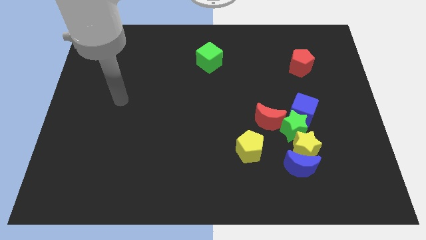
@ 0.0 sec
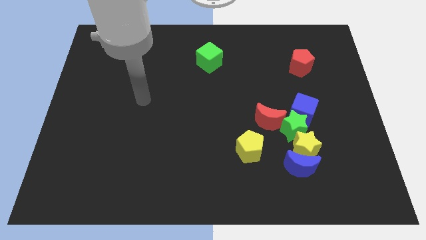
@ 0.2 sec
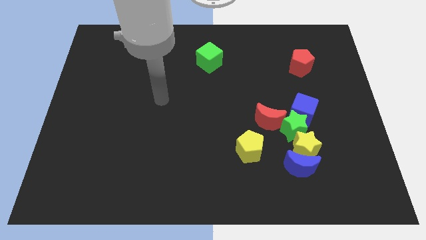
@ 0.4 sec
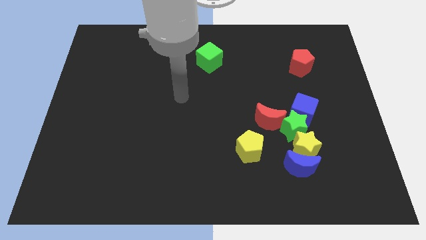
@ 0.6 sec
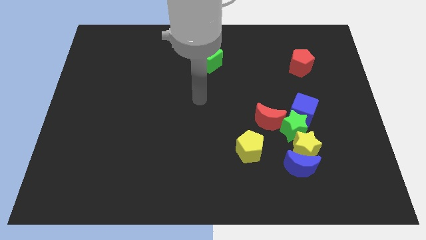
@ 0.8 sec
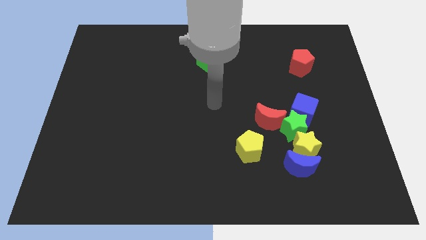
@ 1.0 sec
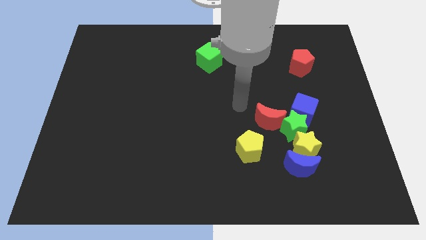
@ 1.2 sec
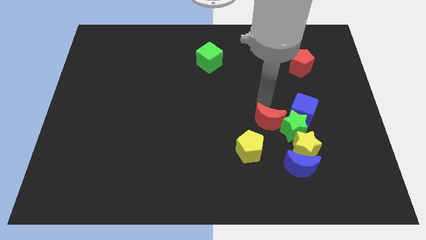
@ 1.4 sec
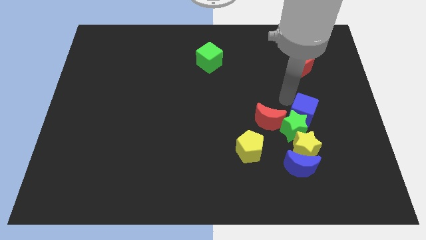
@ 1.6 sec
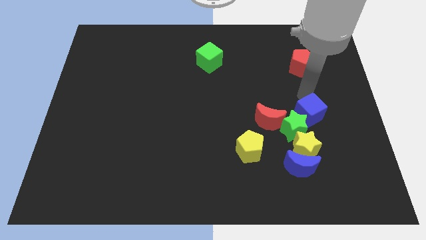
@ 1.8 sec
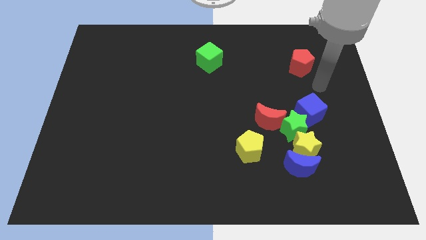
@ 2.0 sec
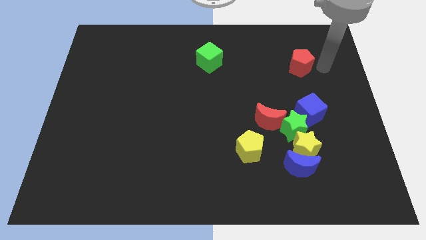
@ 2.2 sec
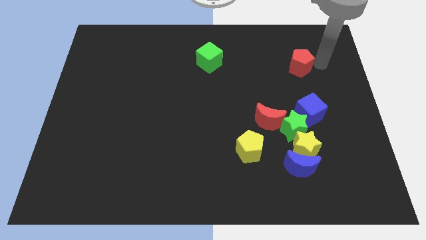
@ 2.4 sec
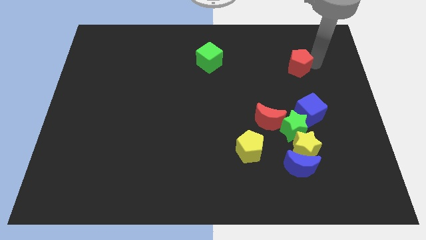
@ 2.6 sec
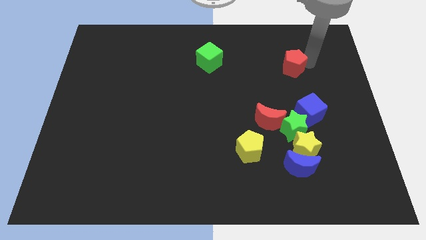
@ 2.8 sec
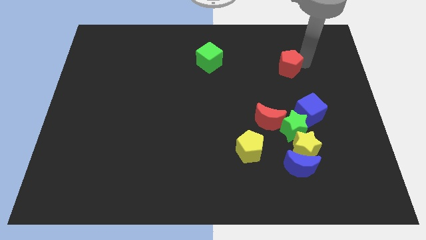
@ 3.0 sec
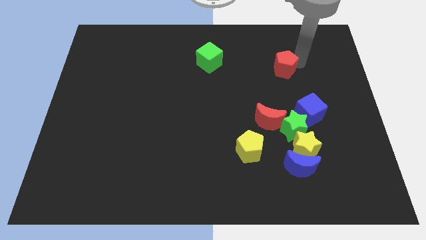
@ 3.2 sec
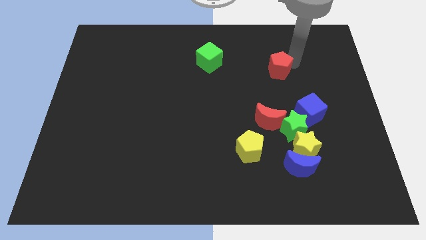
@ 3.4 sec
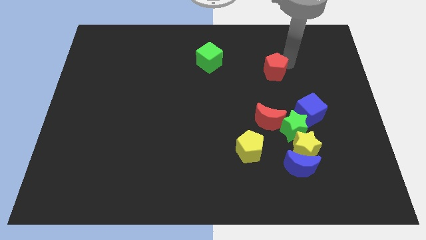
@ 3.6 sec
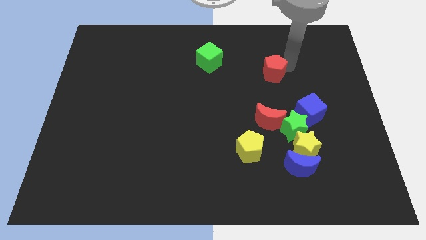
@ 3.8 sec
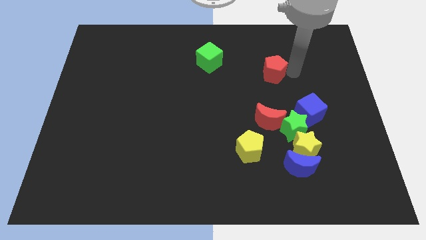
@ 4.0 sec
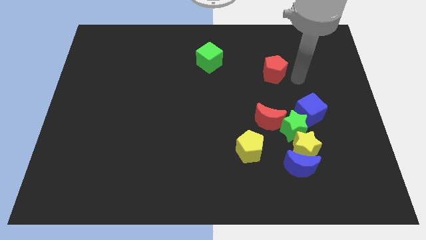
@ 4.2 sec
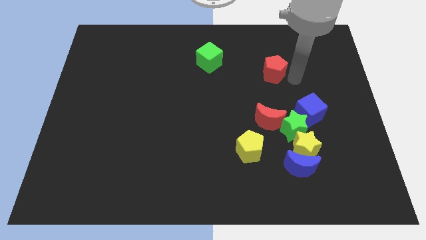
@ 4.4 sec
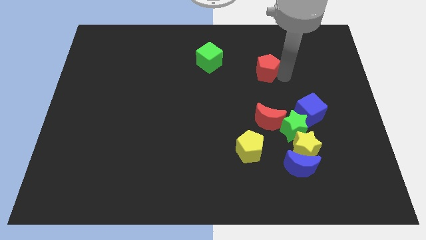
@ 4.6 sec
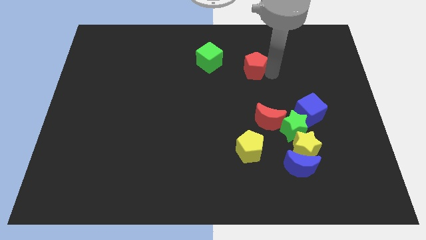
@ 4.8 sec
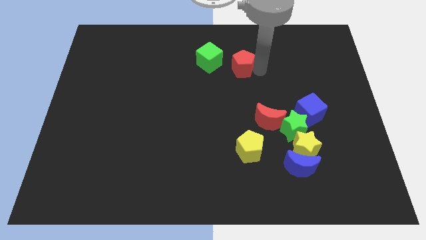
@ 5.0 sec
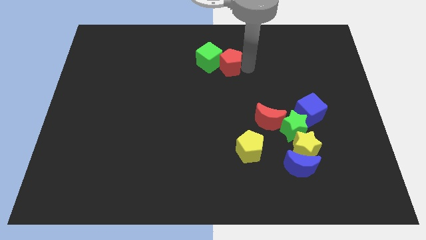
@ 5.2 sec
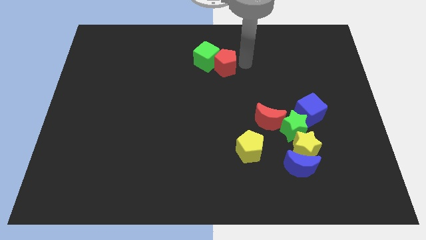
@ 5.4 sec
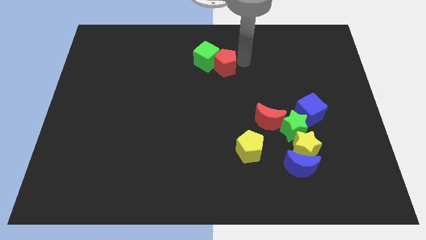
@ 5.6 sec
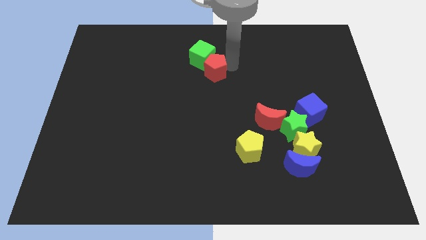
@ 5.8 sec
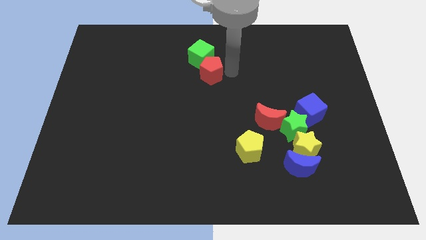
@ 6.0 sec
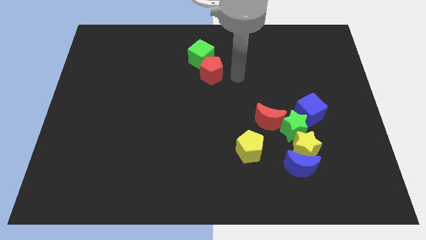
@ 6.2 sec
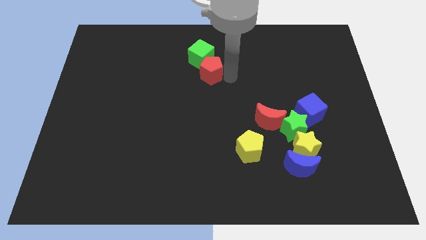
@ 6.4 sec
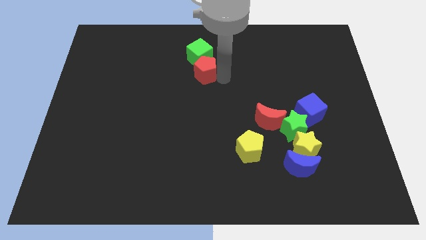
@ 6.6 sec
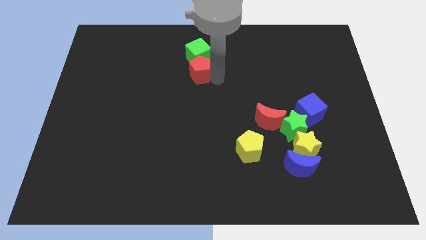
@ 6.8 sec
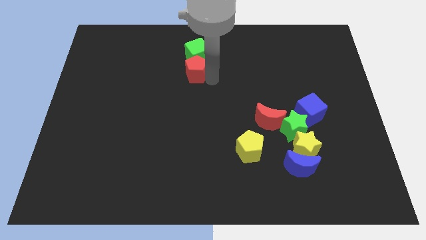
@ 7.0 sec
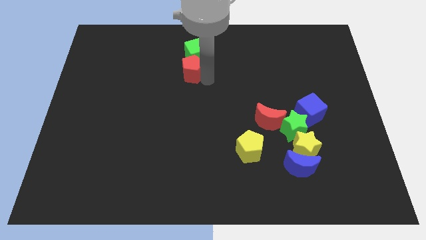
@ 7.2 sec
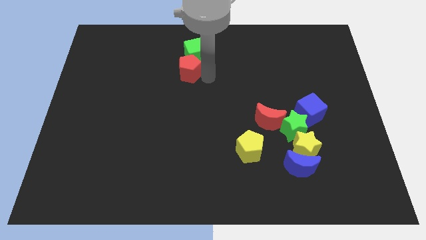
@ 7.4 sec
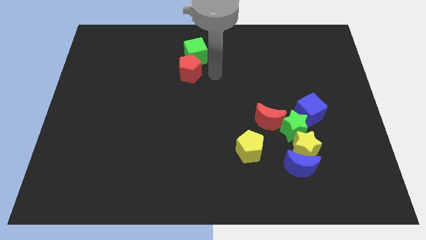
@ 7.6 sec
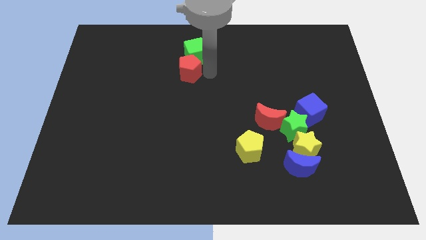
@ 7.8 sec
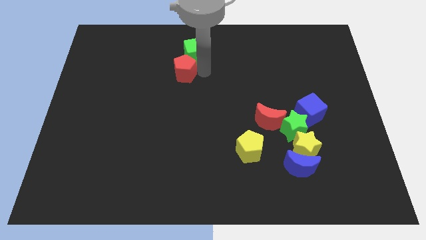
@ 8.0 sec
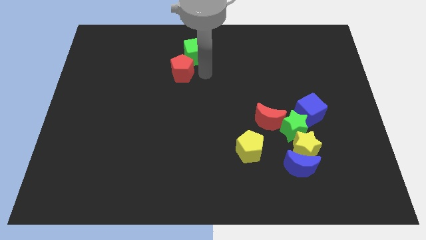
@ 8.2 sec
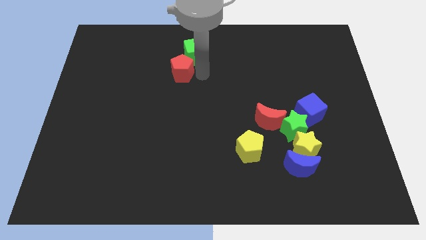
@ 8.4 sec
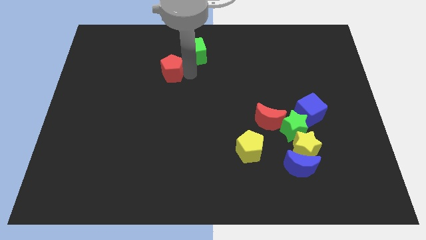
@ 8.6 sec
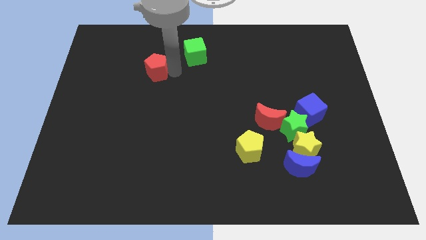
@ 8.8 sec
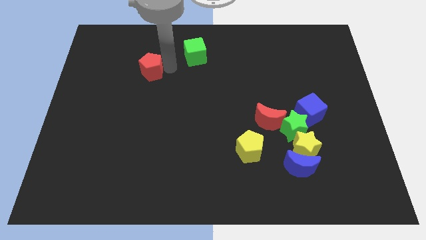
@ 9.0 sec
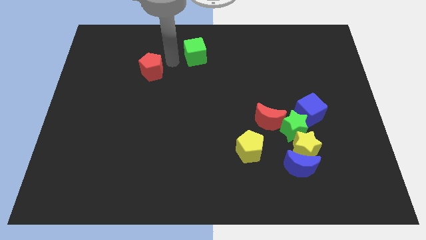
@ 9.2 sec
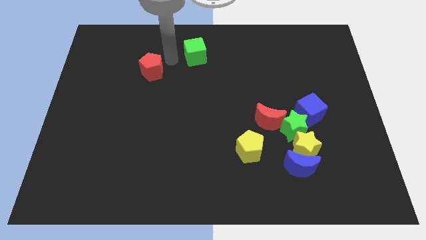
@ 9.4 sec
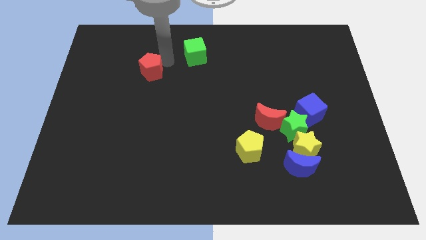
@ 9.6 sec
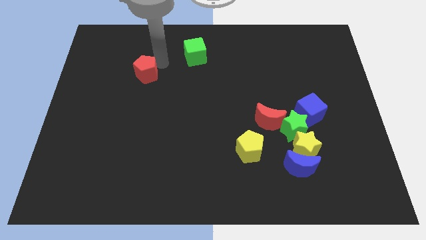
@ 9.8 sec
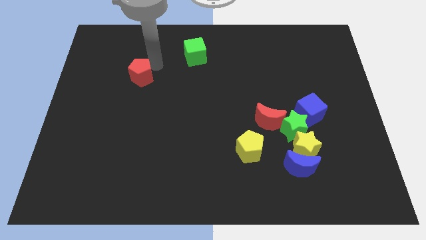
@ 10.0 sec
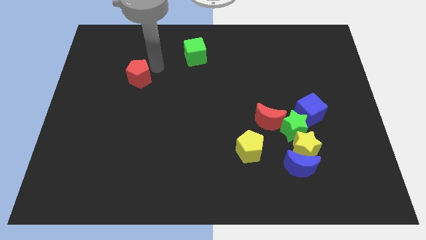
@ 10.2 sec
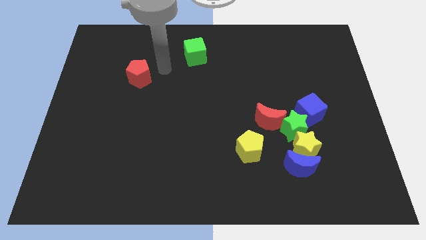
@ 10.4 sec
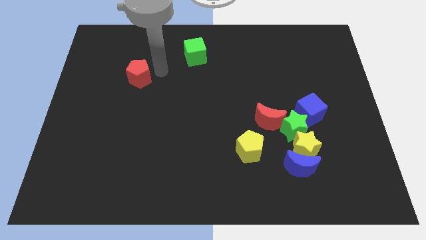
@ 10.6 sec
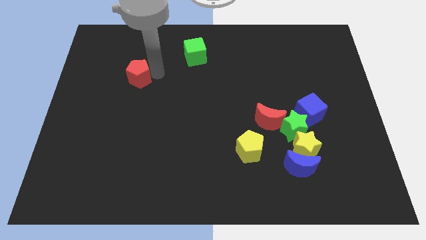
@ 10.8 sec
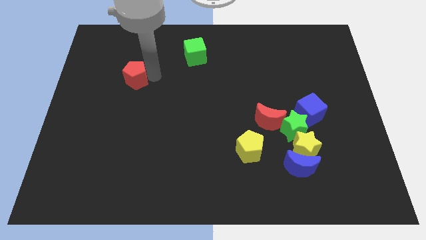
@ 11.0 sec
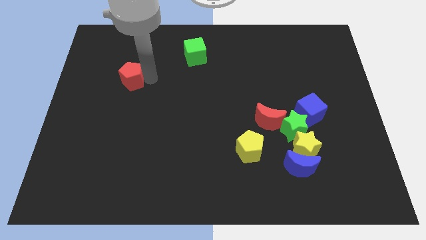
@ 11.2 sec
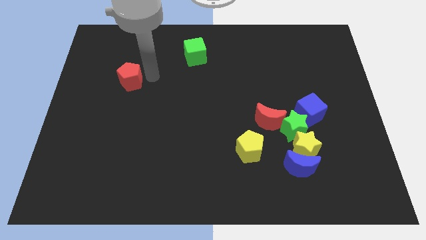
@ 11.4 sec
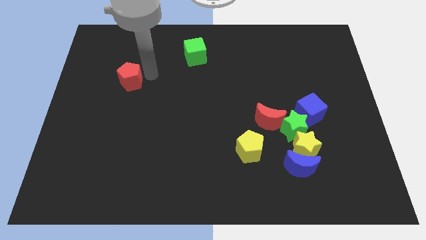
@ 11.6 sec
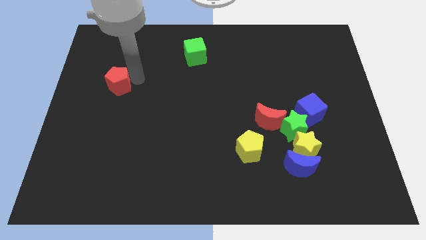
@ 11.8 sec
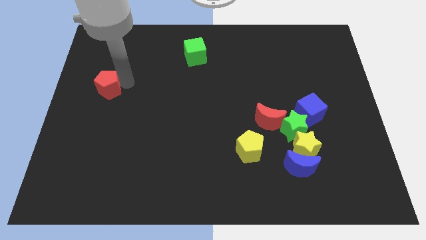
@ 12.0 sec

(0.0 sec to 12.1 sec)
slide the red pentagon to the left side of the board
